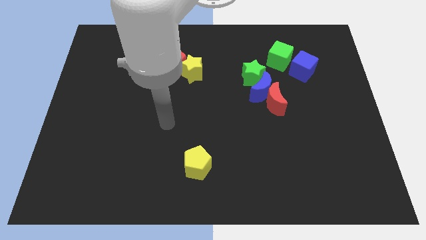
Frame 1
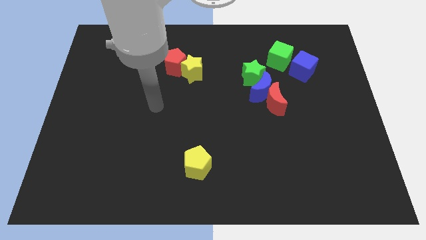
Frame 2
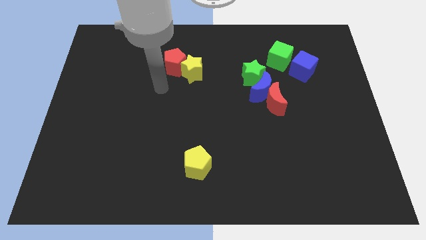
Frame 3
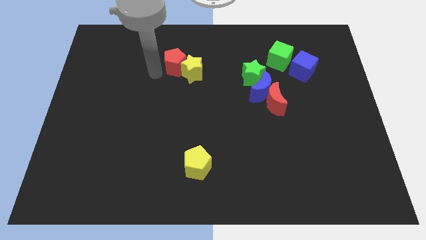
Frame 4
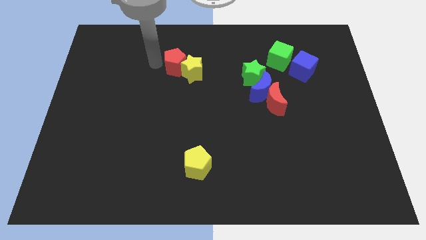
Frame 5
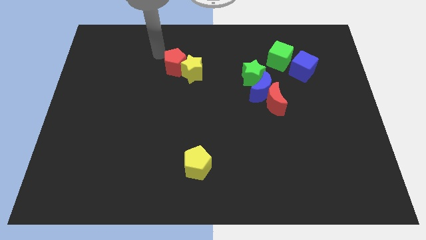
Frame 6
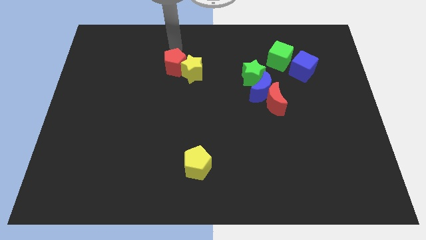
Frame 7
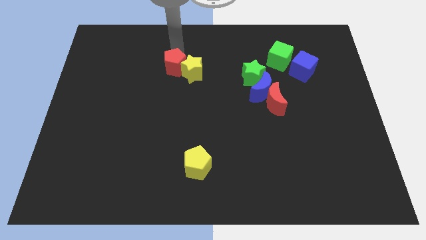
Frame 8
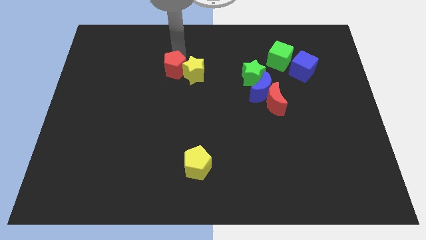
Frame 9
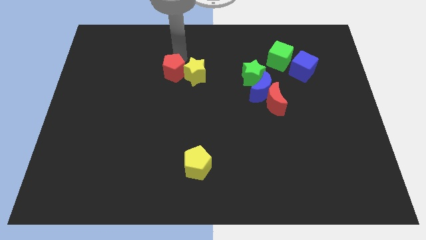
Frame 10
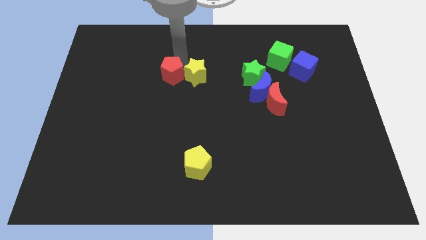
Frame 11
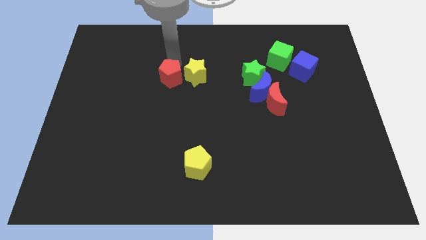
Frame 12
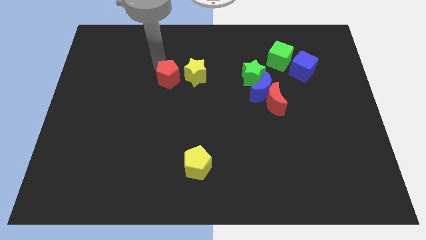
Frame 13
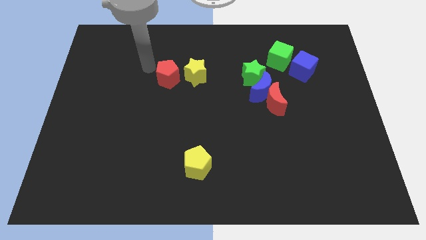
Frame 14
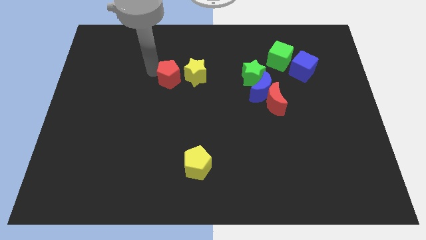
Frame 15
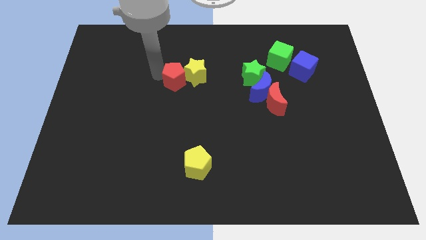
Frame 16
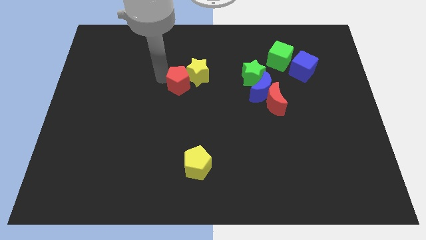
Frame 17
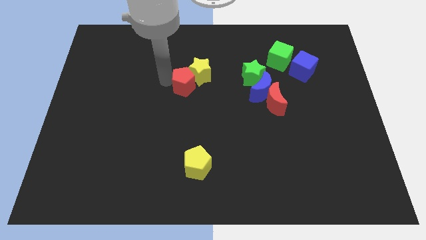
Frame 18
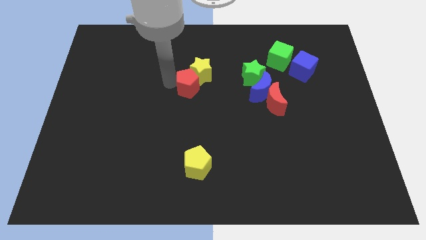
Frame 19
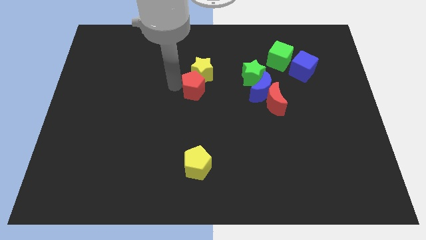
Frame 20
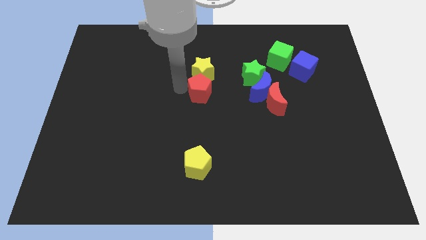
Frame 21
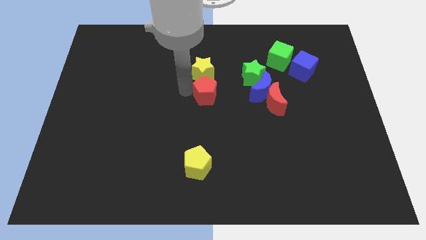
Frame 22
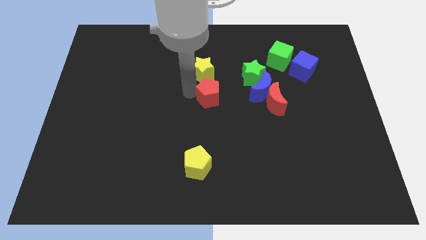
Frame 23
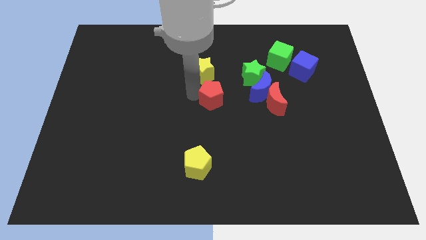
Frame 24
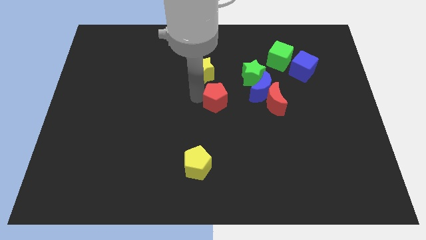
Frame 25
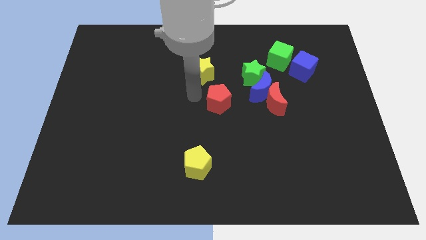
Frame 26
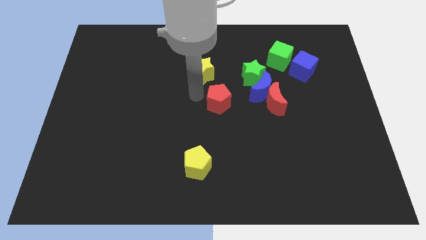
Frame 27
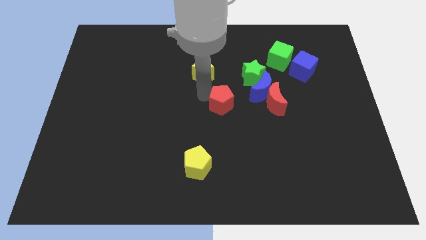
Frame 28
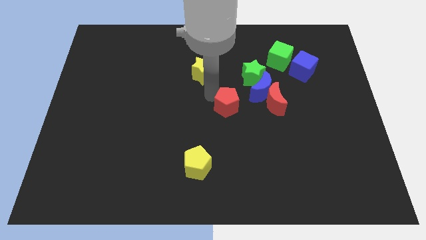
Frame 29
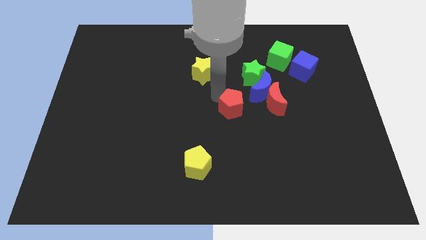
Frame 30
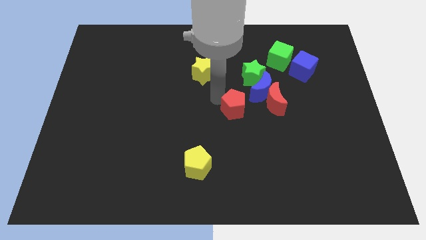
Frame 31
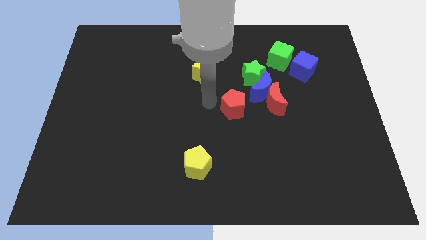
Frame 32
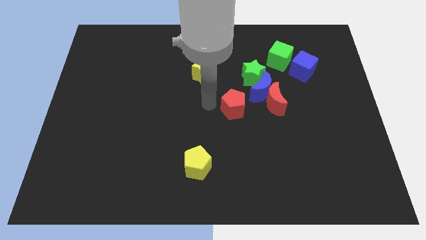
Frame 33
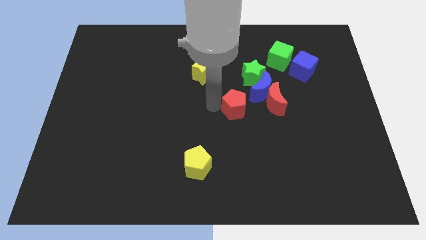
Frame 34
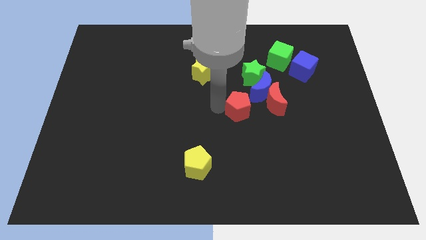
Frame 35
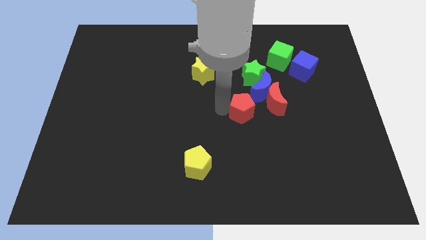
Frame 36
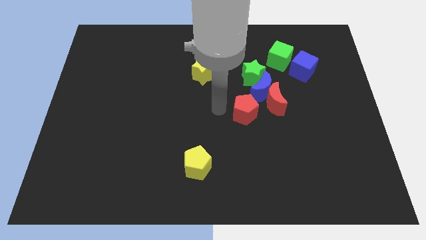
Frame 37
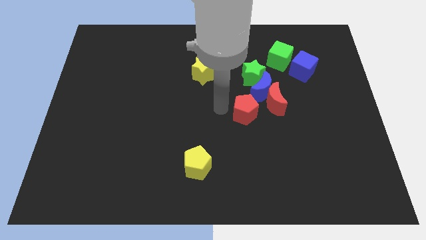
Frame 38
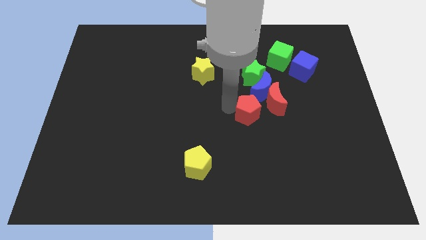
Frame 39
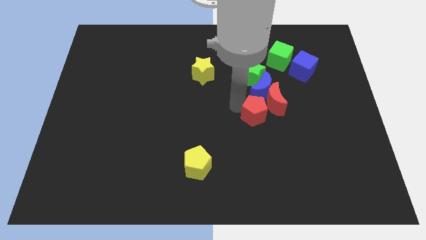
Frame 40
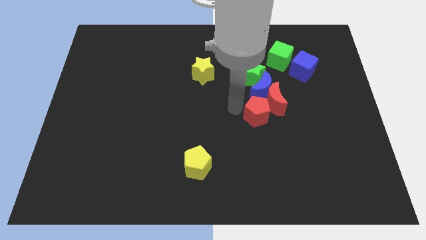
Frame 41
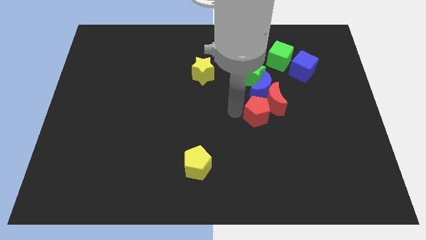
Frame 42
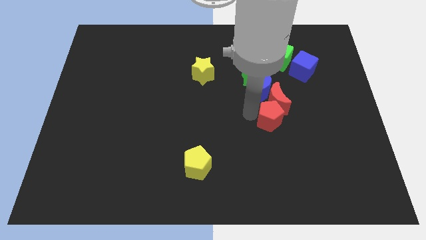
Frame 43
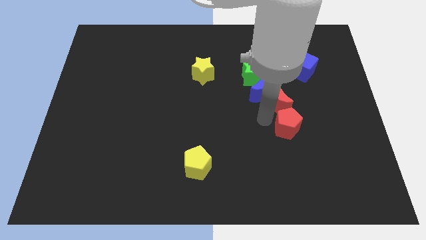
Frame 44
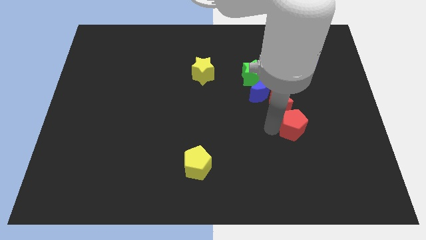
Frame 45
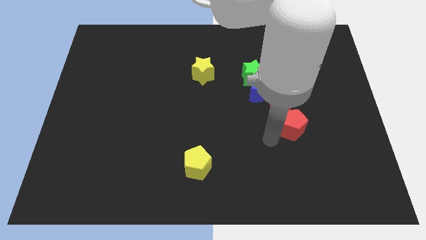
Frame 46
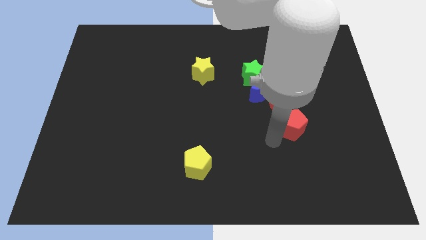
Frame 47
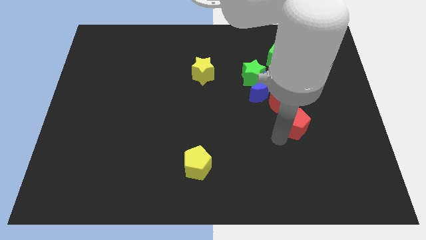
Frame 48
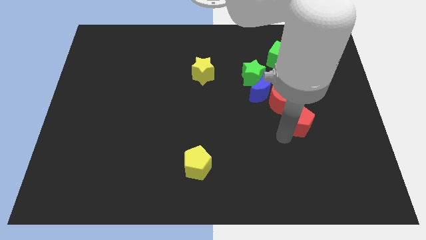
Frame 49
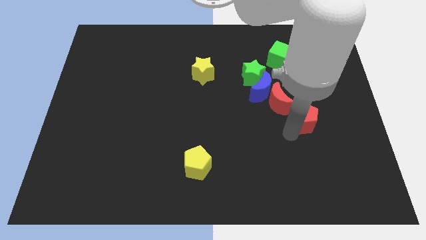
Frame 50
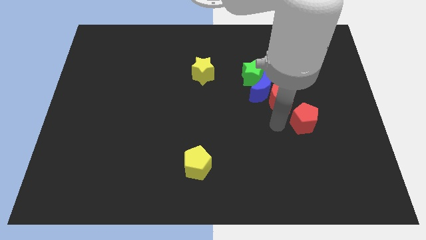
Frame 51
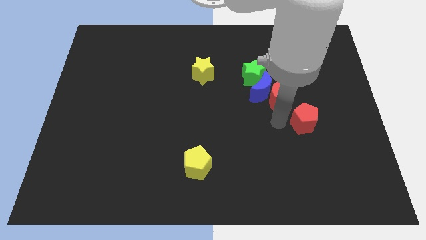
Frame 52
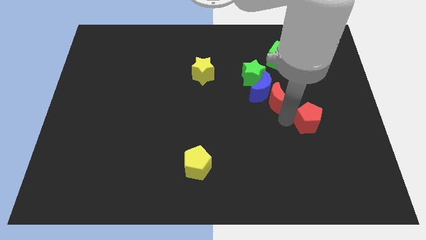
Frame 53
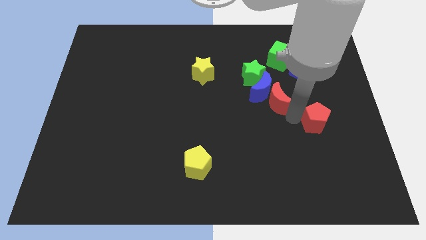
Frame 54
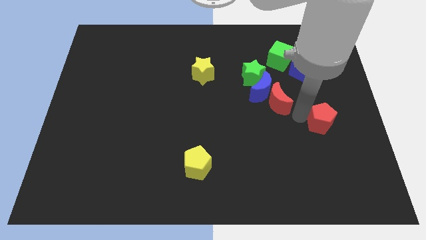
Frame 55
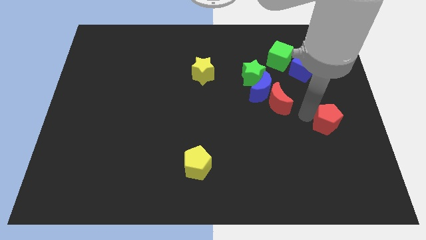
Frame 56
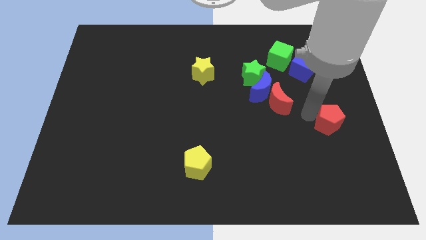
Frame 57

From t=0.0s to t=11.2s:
put the red pentagon to the center right

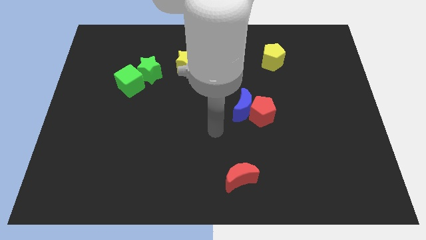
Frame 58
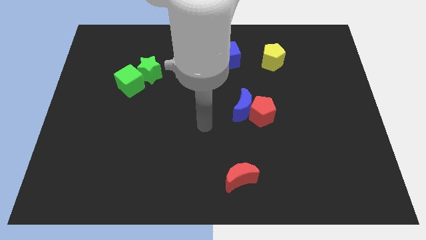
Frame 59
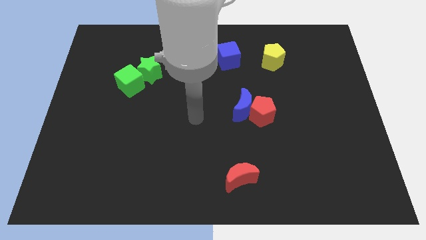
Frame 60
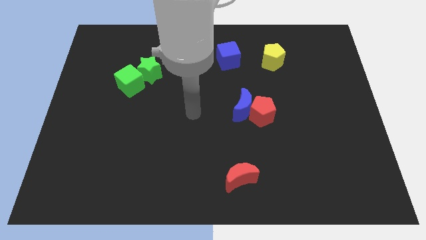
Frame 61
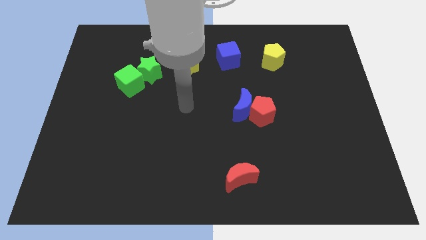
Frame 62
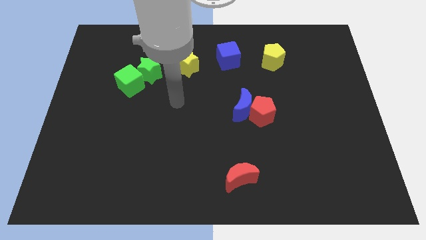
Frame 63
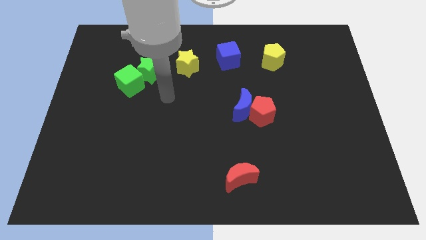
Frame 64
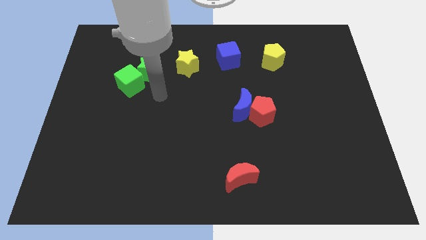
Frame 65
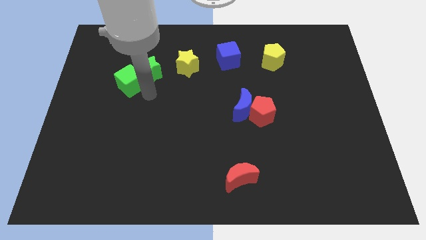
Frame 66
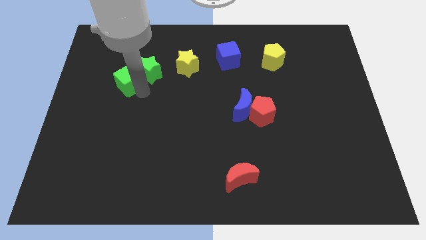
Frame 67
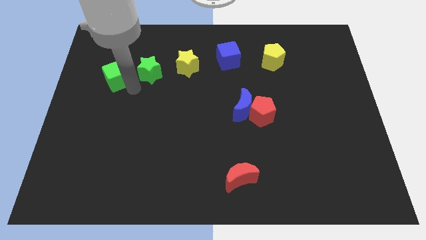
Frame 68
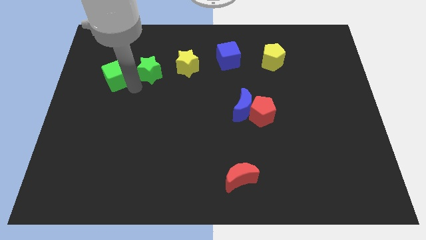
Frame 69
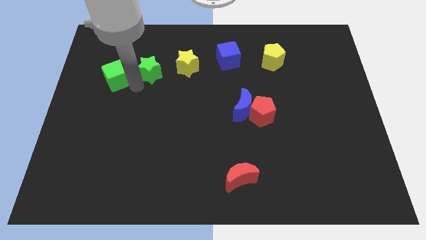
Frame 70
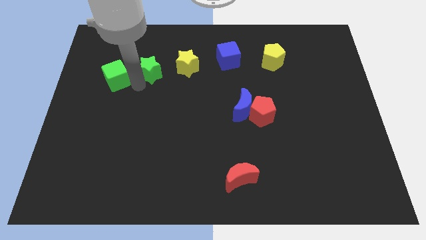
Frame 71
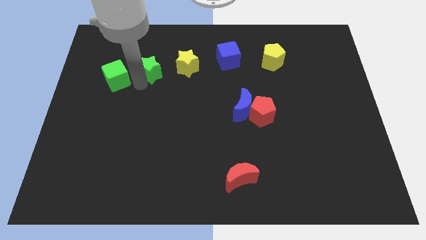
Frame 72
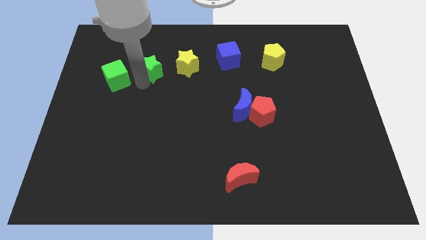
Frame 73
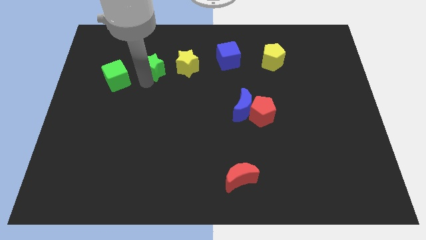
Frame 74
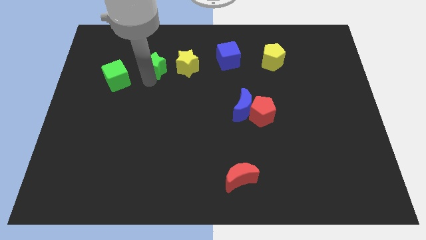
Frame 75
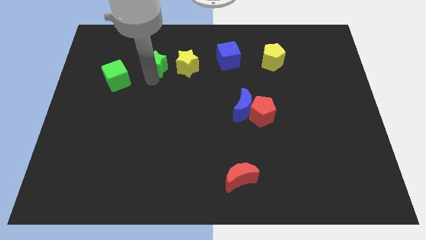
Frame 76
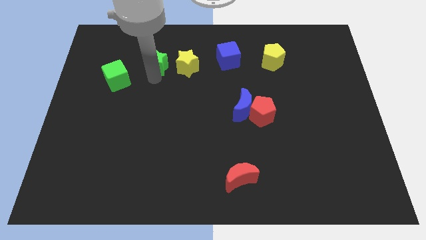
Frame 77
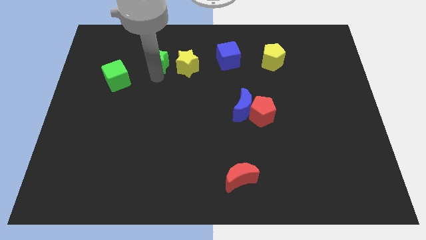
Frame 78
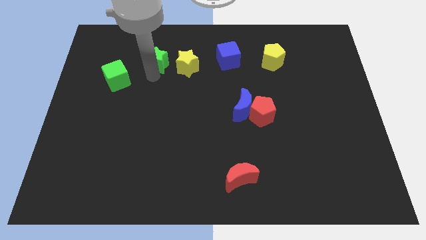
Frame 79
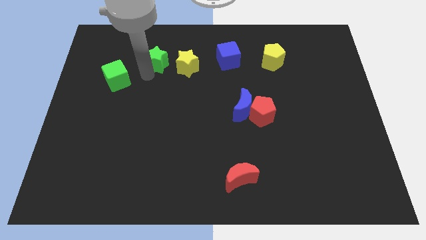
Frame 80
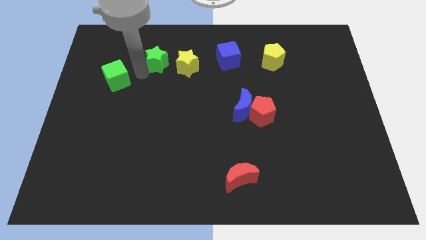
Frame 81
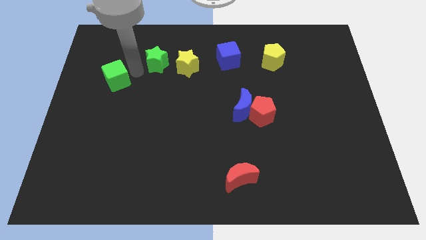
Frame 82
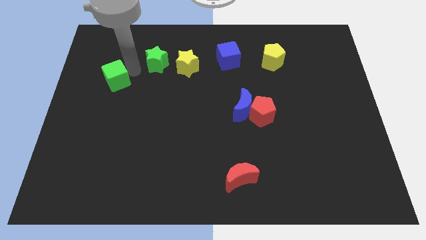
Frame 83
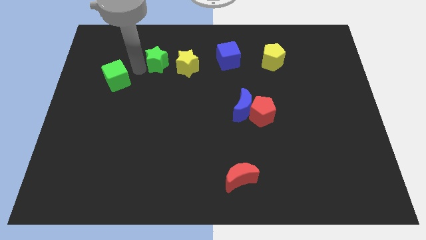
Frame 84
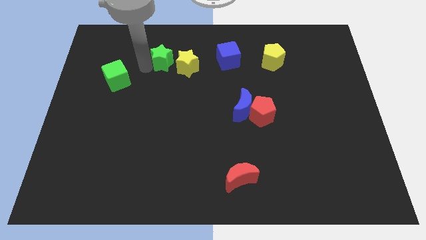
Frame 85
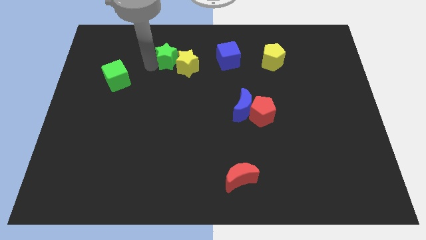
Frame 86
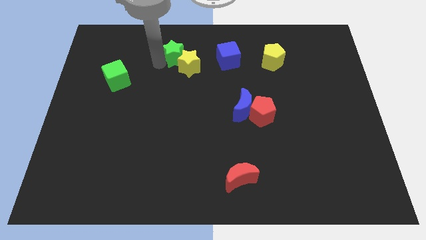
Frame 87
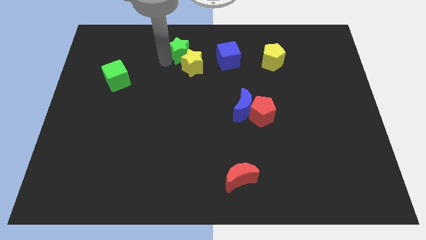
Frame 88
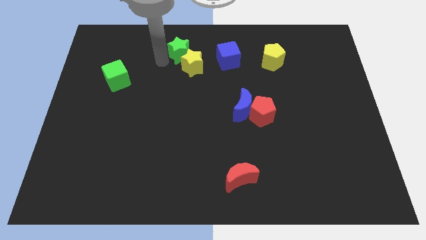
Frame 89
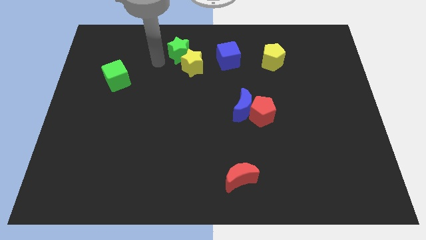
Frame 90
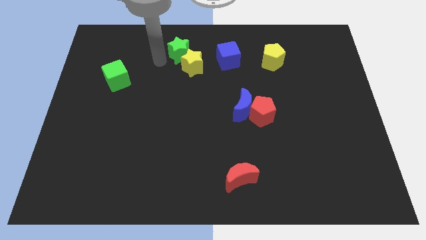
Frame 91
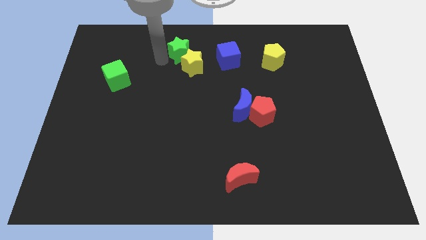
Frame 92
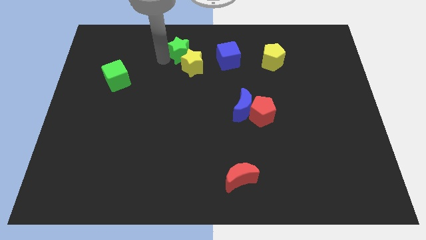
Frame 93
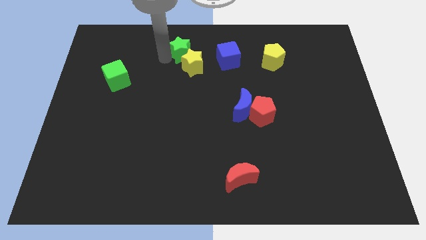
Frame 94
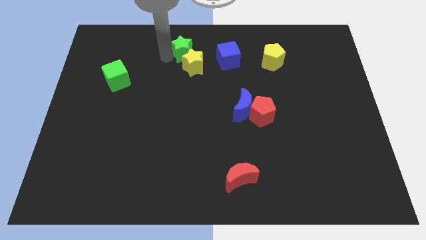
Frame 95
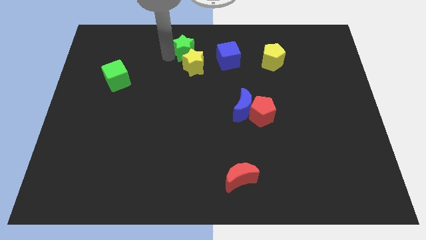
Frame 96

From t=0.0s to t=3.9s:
put the green star to the top side
